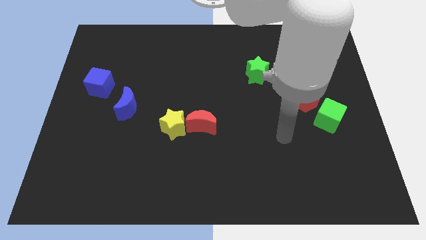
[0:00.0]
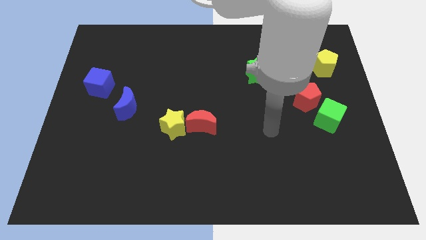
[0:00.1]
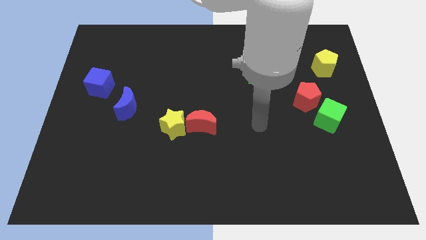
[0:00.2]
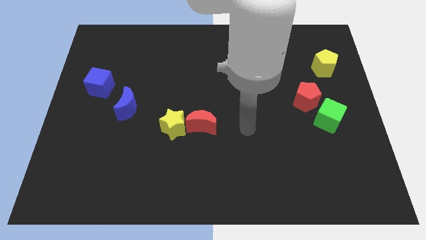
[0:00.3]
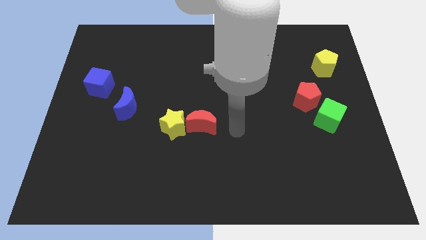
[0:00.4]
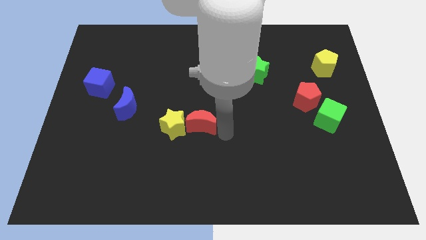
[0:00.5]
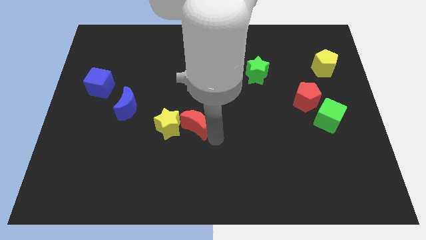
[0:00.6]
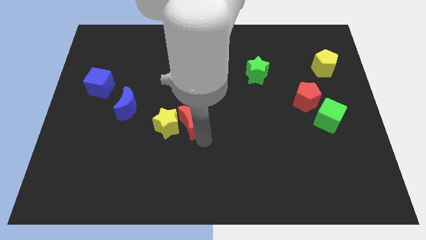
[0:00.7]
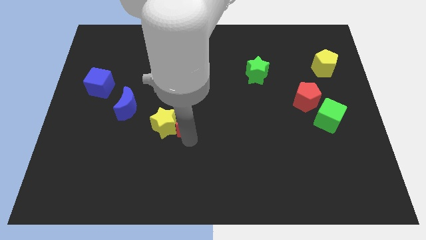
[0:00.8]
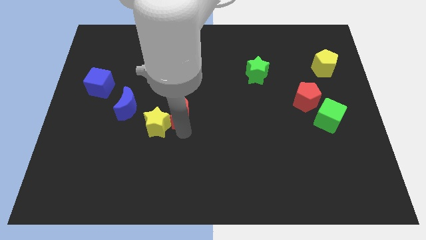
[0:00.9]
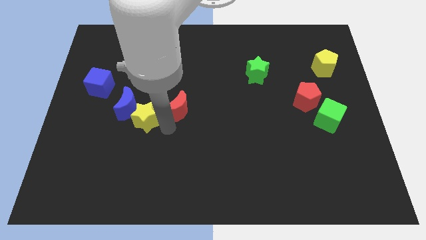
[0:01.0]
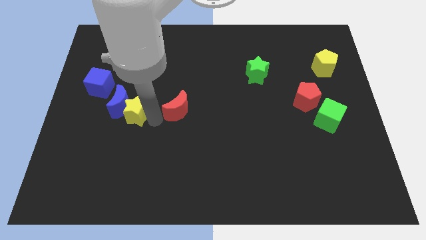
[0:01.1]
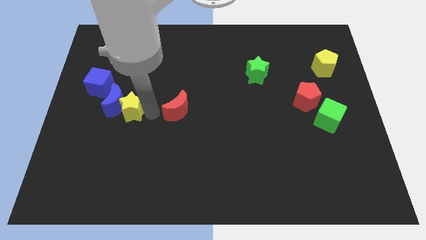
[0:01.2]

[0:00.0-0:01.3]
move the red moon away from the yellow star

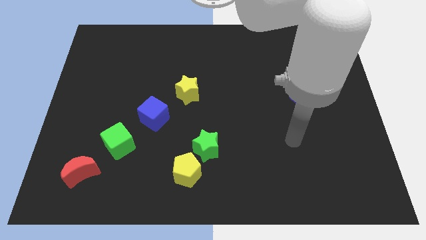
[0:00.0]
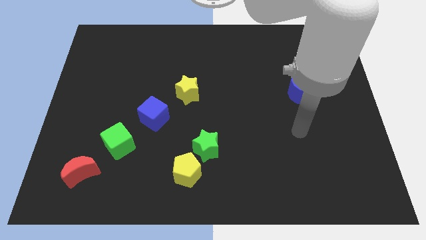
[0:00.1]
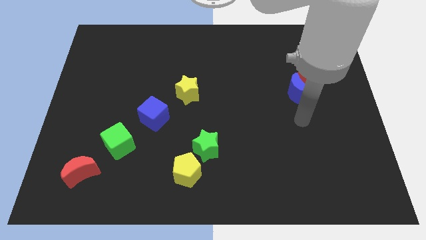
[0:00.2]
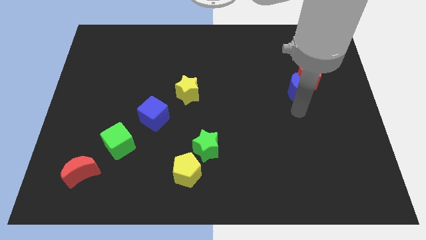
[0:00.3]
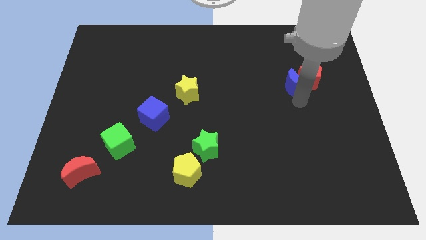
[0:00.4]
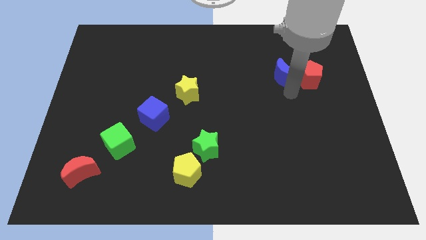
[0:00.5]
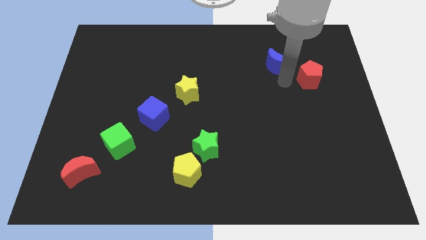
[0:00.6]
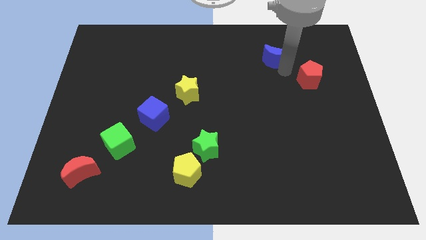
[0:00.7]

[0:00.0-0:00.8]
pull the red pentagon apart from the blue moon

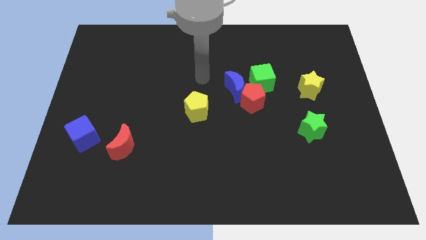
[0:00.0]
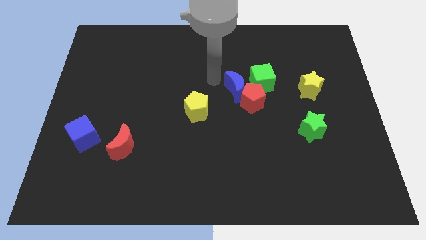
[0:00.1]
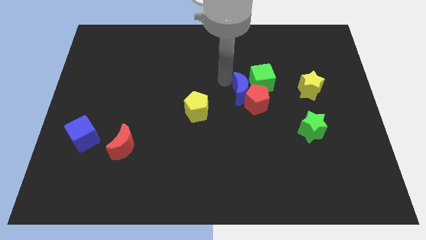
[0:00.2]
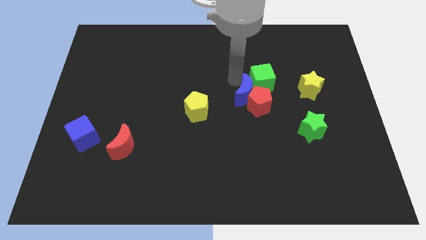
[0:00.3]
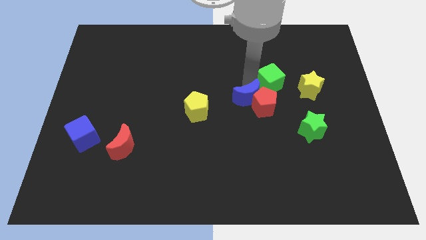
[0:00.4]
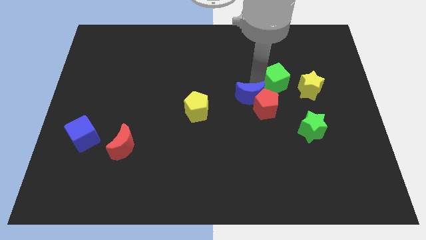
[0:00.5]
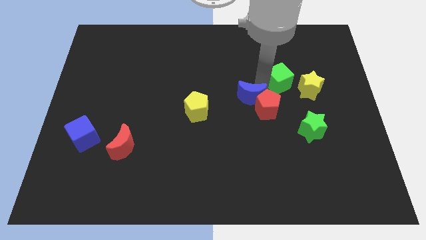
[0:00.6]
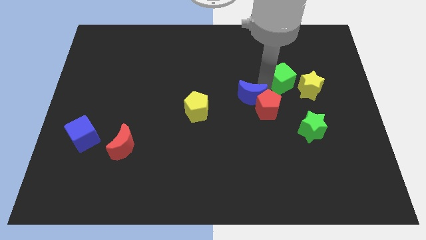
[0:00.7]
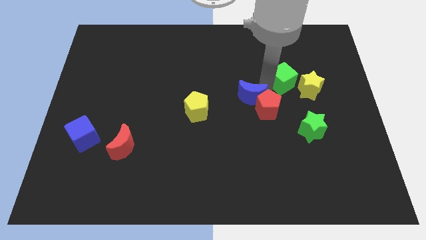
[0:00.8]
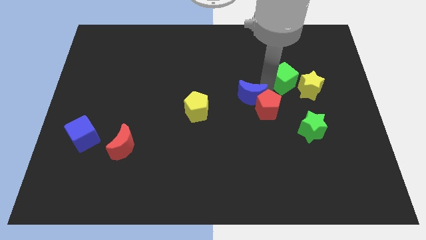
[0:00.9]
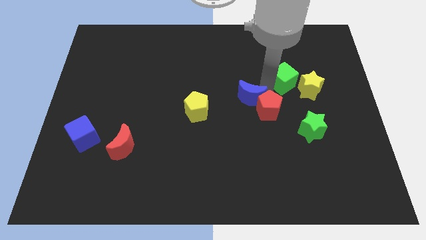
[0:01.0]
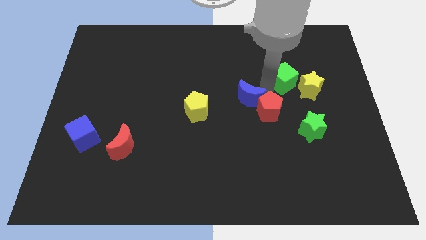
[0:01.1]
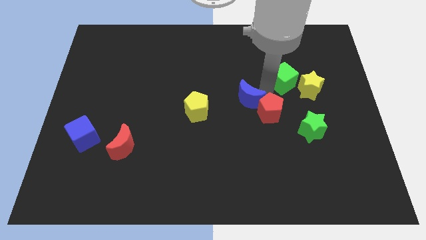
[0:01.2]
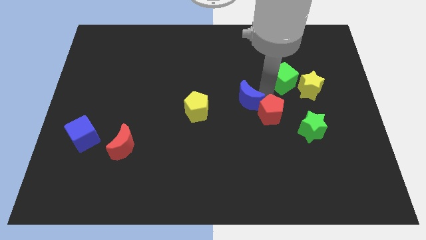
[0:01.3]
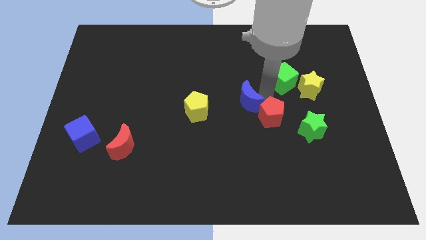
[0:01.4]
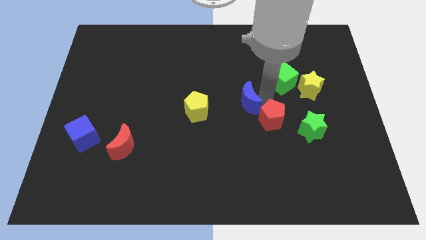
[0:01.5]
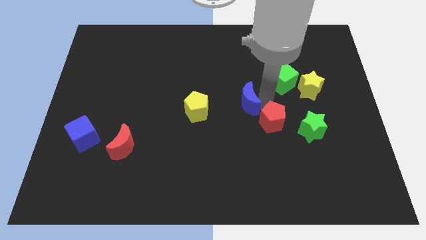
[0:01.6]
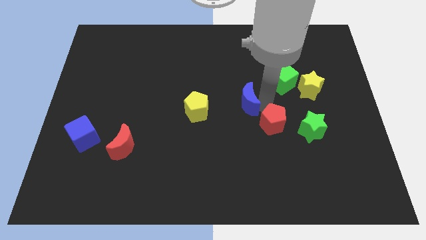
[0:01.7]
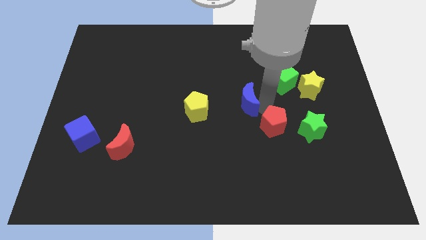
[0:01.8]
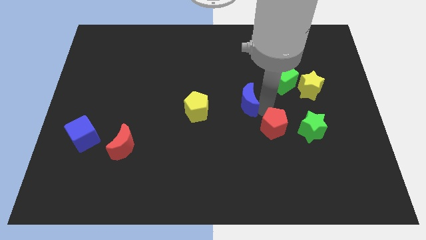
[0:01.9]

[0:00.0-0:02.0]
pull the red pentagon apart from the blue moon and green cube

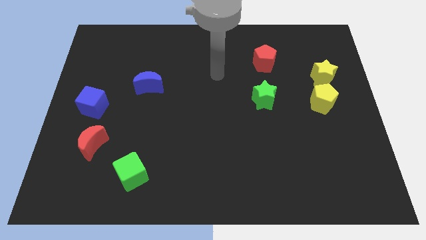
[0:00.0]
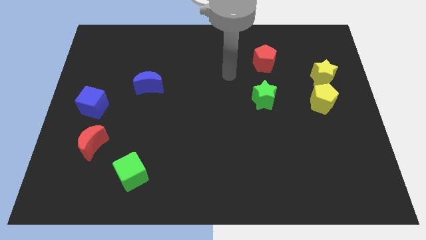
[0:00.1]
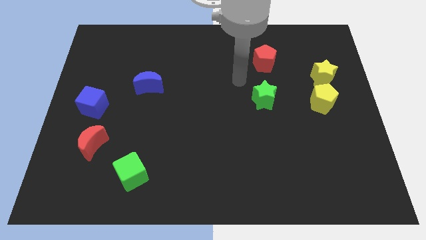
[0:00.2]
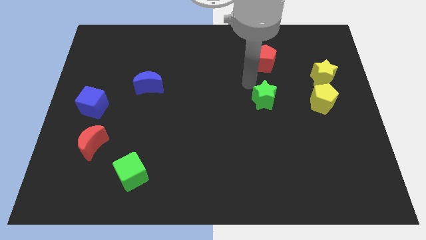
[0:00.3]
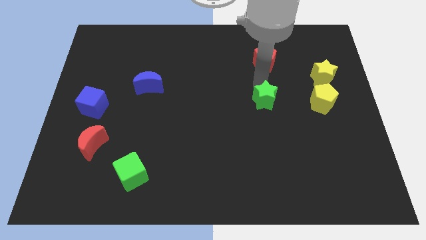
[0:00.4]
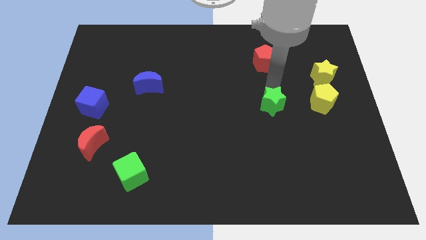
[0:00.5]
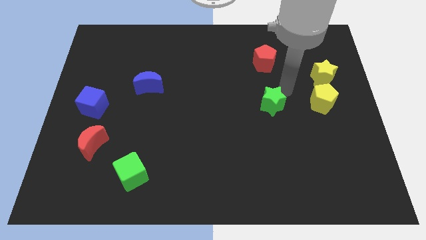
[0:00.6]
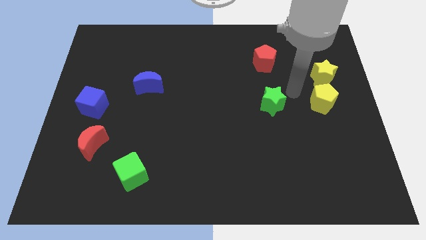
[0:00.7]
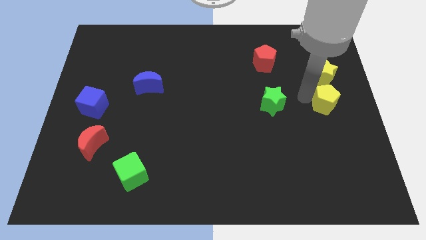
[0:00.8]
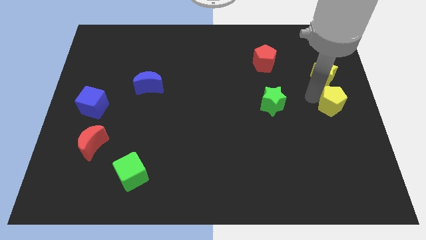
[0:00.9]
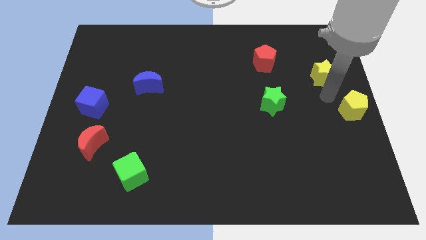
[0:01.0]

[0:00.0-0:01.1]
move the yellow star away from the yellow pentagon

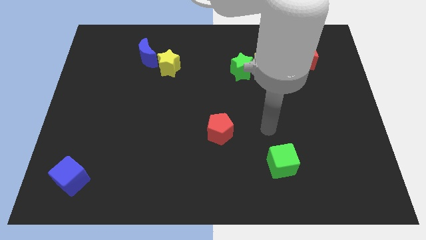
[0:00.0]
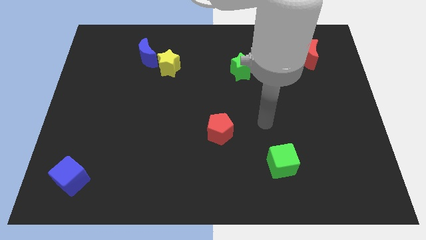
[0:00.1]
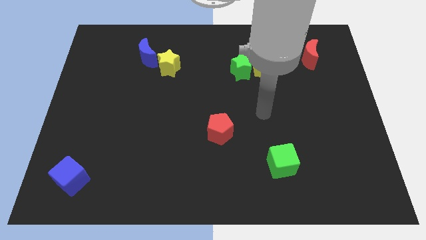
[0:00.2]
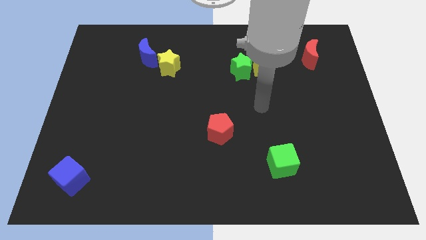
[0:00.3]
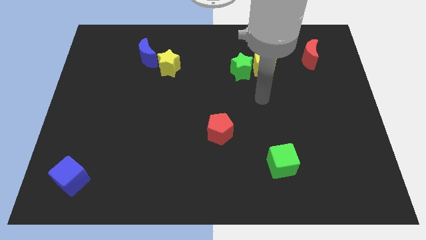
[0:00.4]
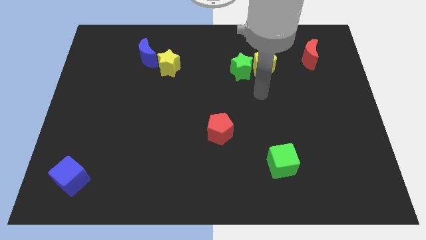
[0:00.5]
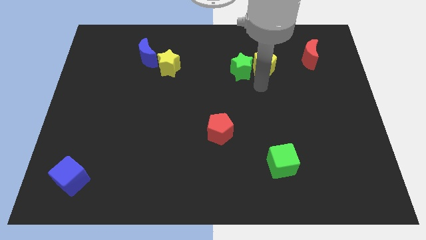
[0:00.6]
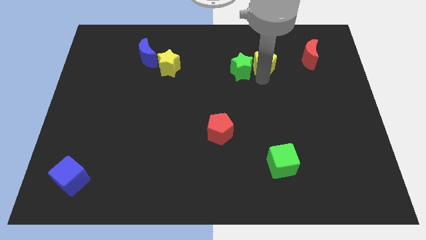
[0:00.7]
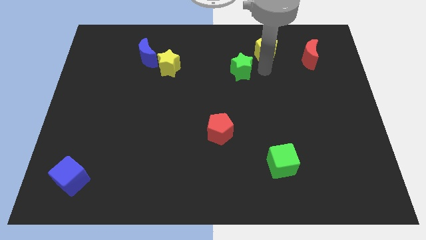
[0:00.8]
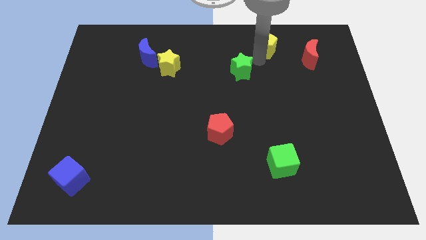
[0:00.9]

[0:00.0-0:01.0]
separate the green star from the yellow pentagon

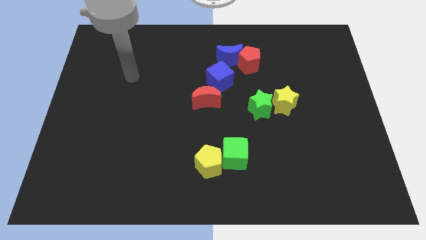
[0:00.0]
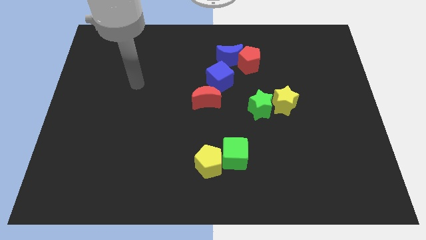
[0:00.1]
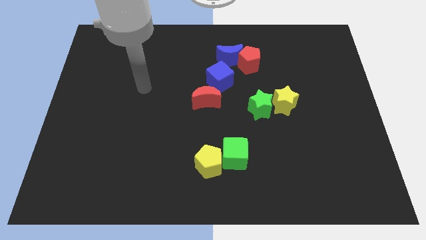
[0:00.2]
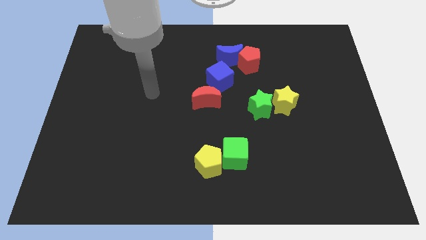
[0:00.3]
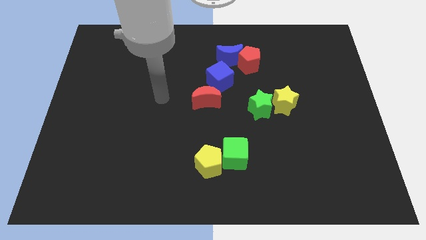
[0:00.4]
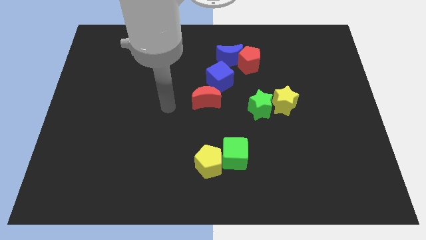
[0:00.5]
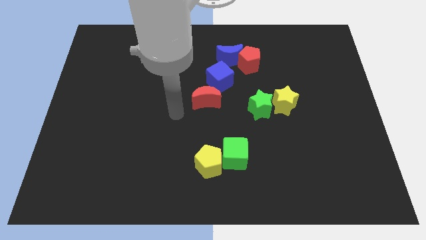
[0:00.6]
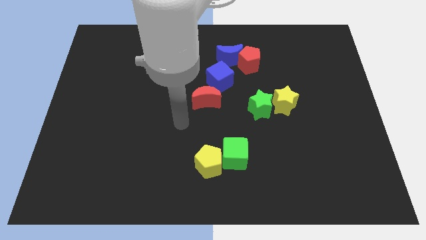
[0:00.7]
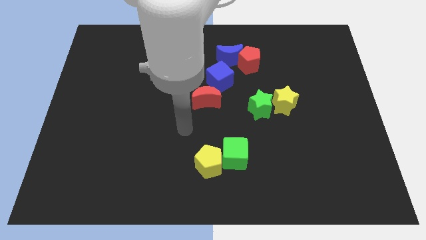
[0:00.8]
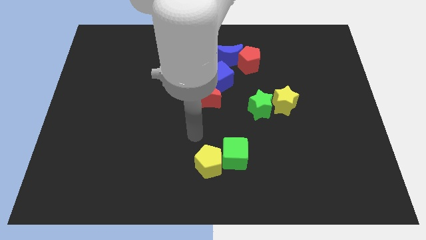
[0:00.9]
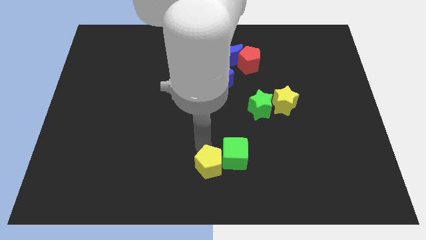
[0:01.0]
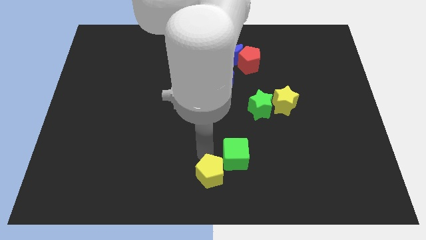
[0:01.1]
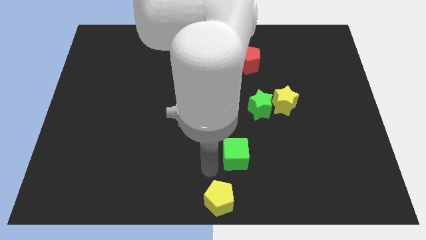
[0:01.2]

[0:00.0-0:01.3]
move the green cube away from the yellow pentagon

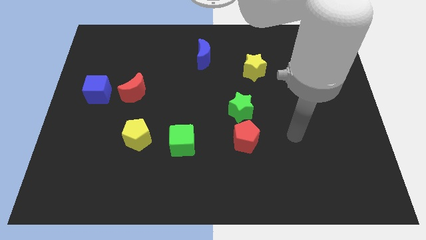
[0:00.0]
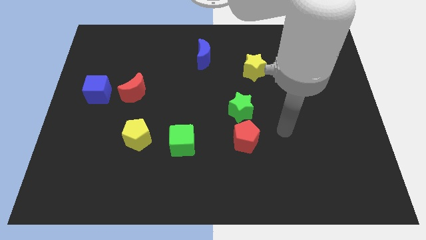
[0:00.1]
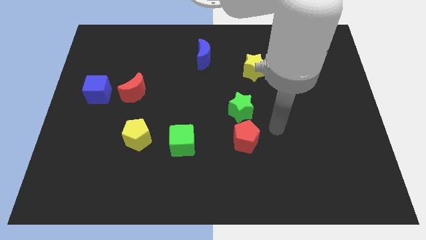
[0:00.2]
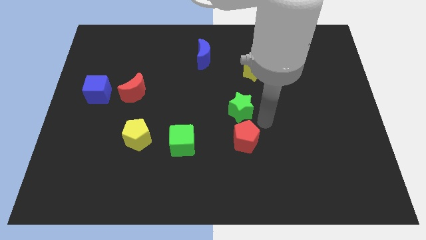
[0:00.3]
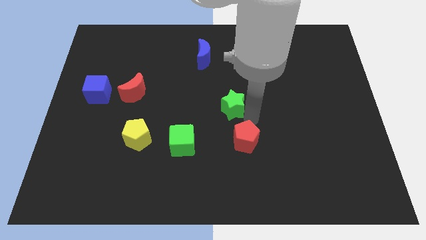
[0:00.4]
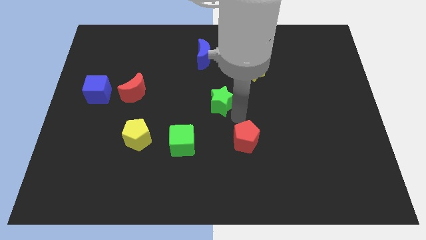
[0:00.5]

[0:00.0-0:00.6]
pull the red pentagon apart from the green star

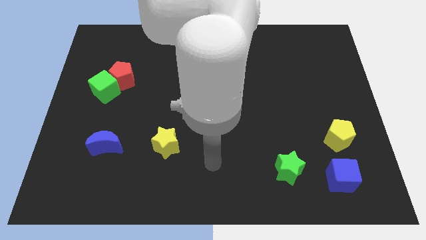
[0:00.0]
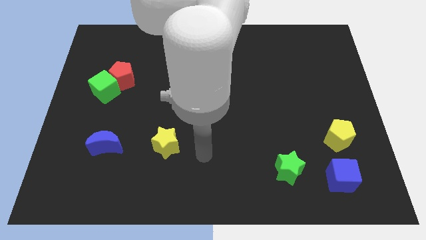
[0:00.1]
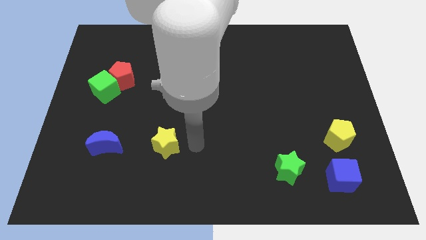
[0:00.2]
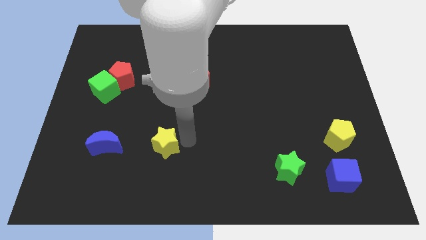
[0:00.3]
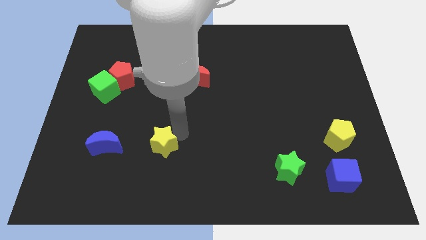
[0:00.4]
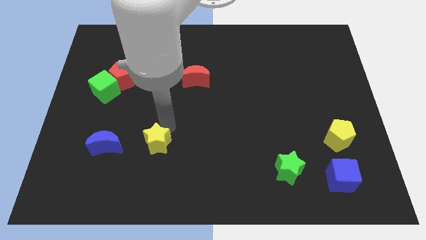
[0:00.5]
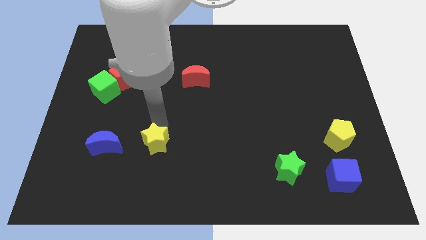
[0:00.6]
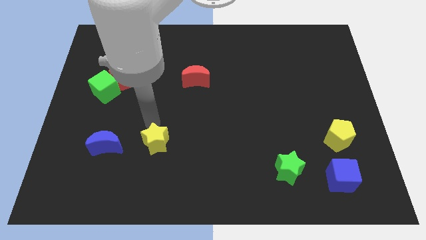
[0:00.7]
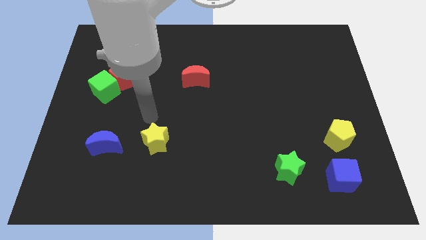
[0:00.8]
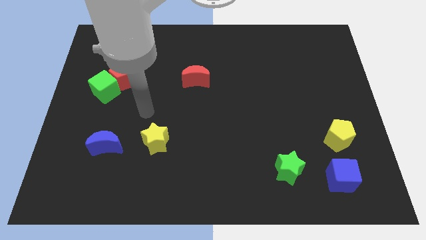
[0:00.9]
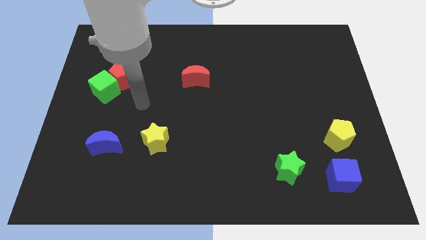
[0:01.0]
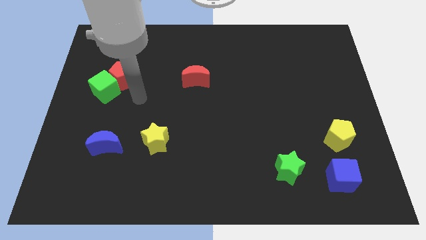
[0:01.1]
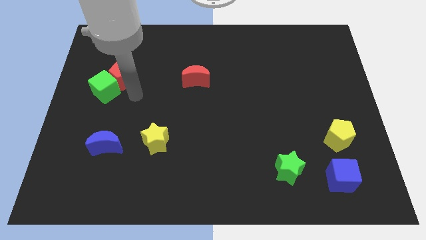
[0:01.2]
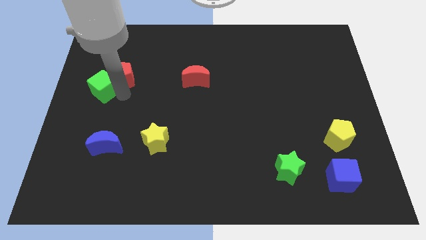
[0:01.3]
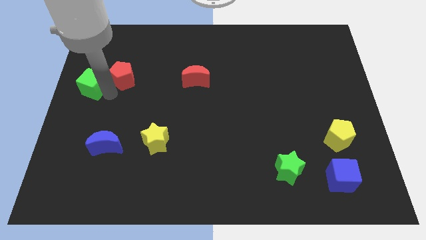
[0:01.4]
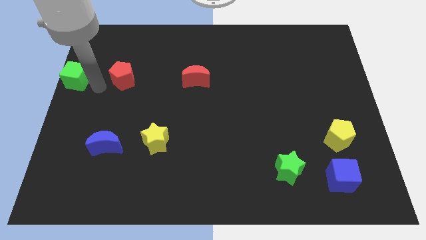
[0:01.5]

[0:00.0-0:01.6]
move the red pentagon away from the green cube
